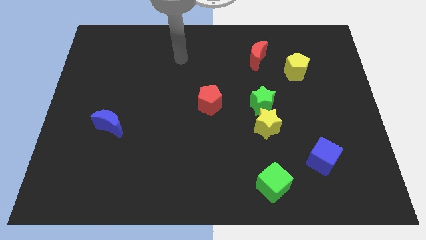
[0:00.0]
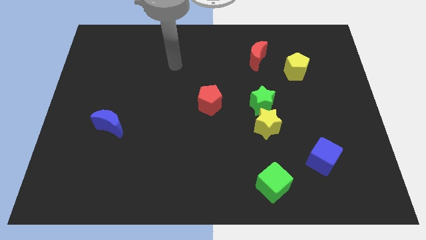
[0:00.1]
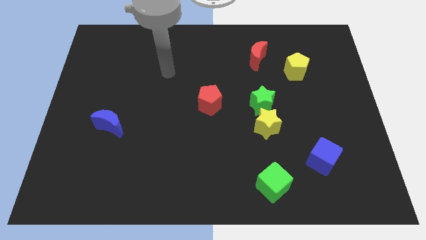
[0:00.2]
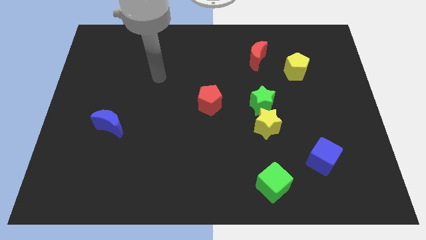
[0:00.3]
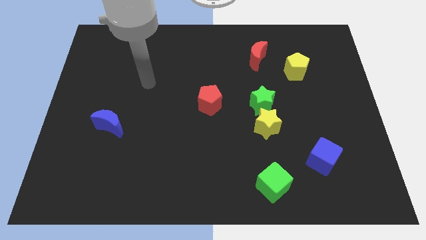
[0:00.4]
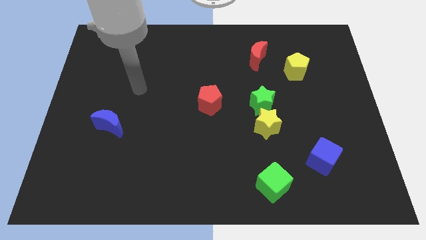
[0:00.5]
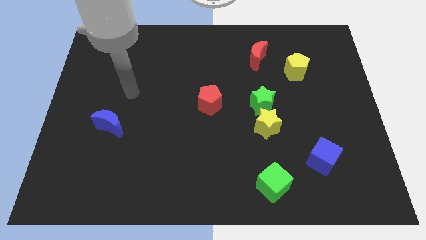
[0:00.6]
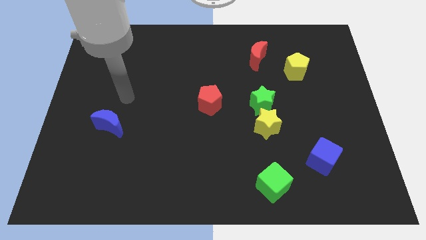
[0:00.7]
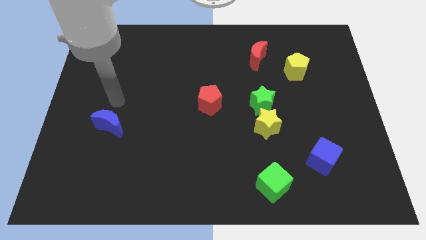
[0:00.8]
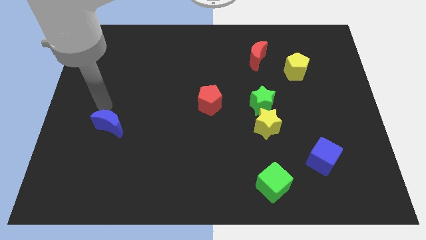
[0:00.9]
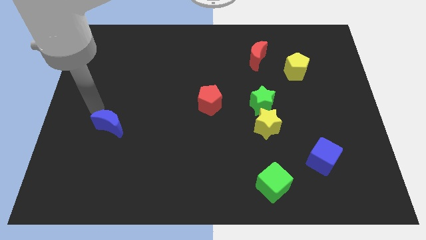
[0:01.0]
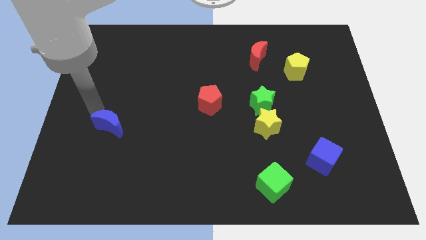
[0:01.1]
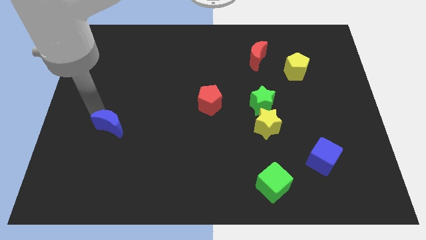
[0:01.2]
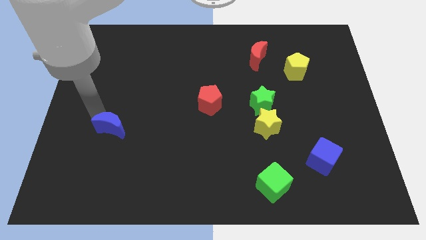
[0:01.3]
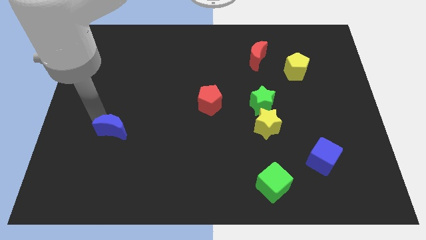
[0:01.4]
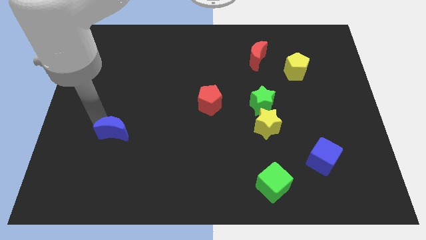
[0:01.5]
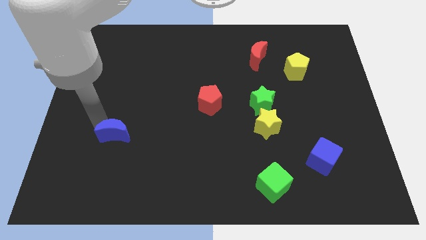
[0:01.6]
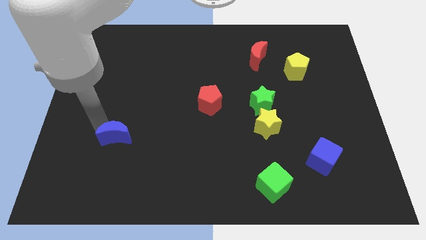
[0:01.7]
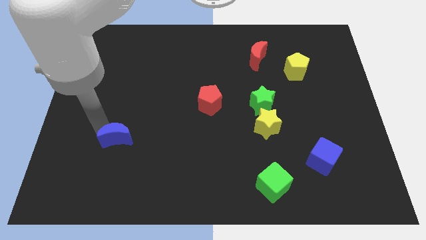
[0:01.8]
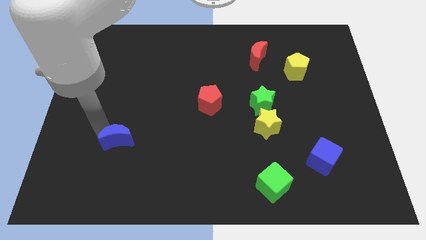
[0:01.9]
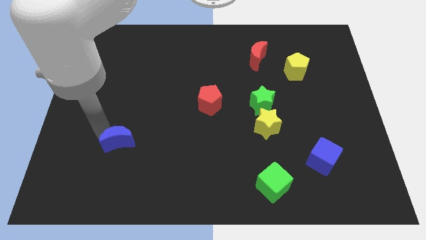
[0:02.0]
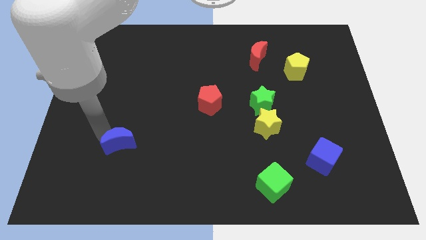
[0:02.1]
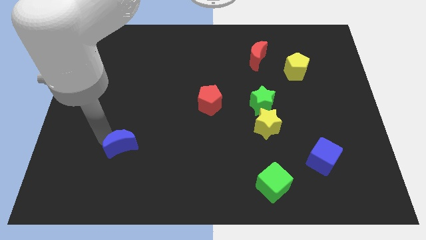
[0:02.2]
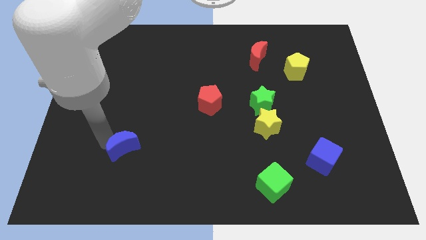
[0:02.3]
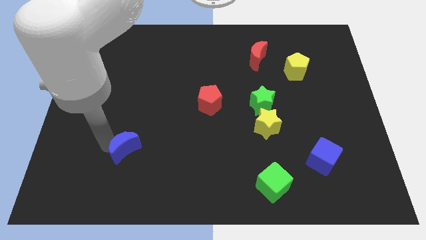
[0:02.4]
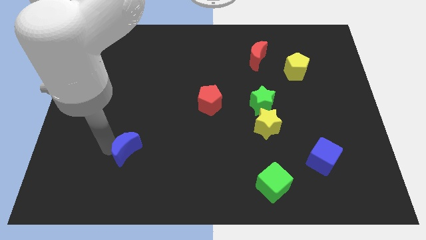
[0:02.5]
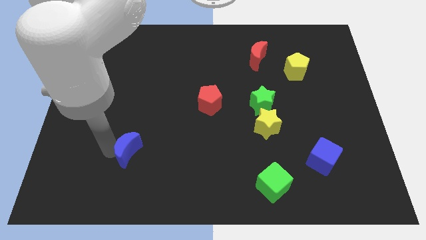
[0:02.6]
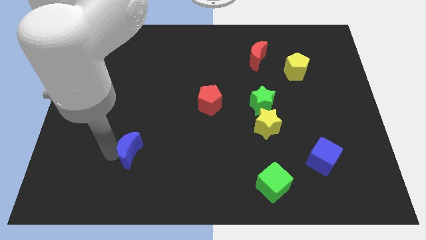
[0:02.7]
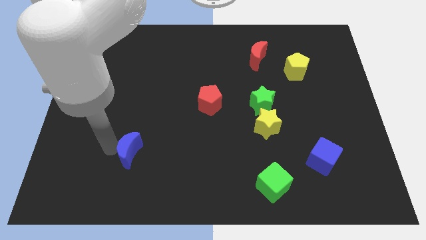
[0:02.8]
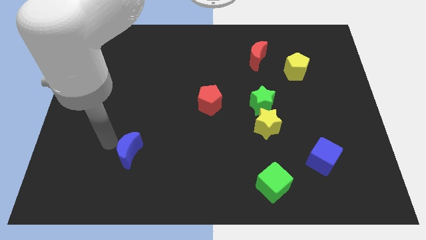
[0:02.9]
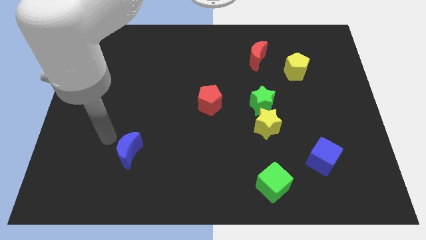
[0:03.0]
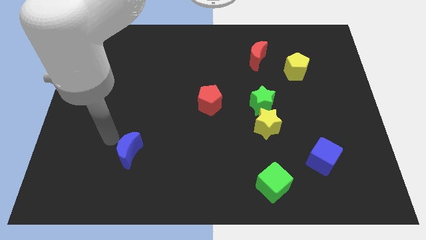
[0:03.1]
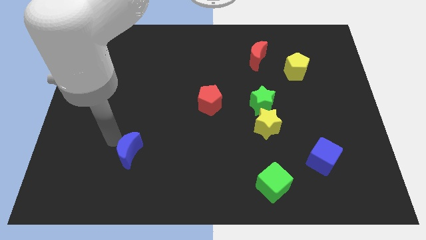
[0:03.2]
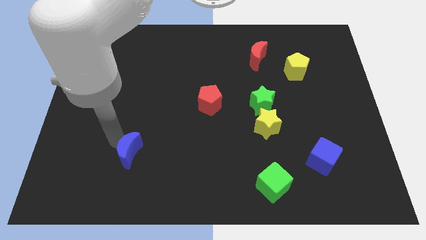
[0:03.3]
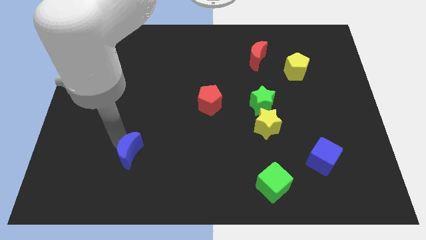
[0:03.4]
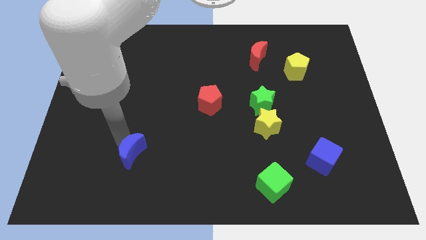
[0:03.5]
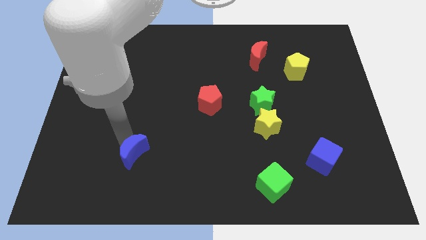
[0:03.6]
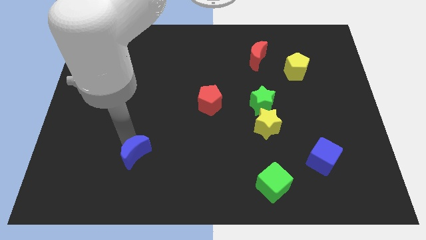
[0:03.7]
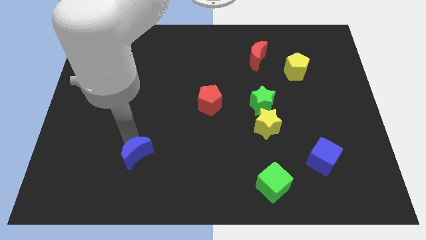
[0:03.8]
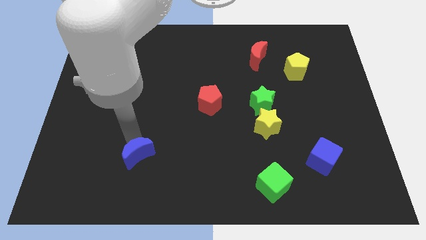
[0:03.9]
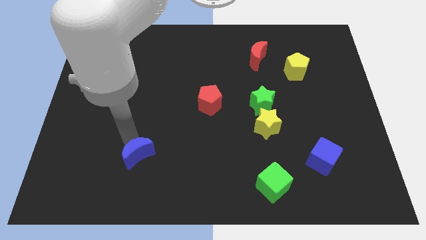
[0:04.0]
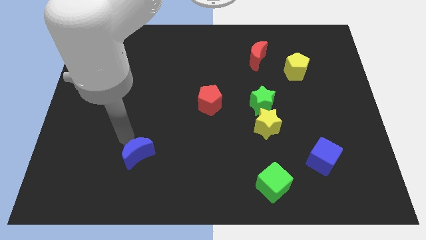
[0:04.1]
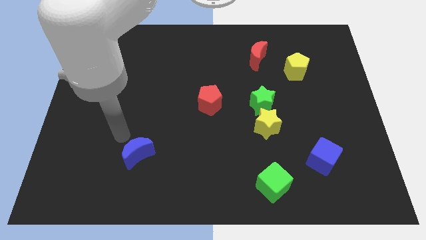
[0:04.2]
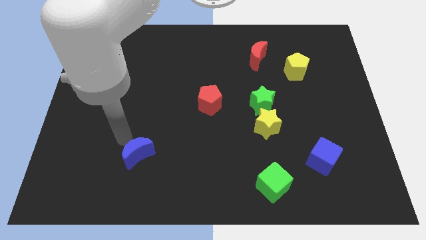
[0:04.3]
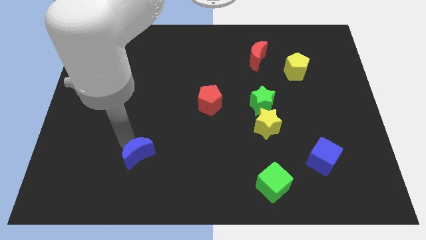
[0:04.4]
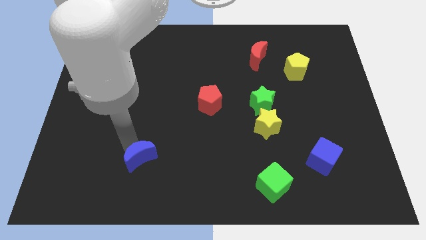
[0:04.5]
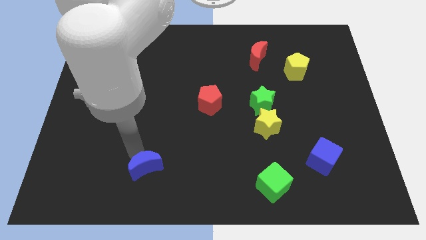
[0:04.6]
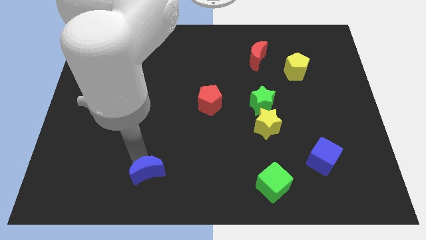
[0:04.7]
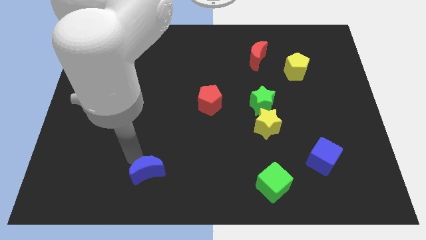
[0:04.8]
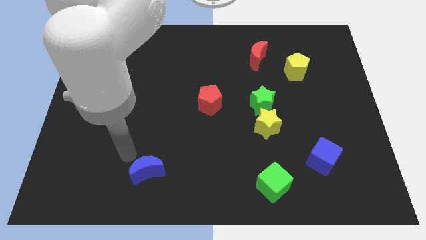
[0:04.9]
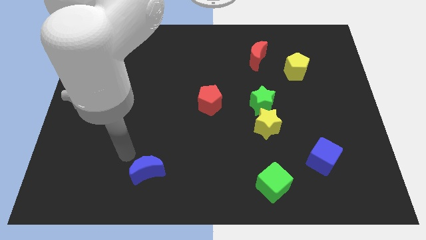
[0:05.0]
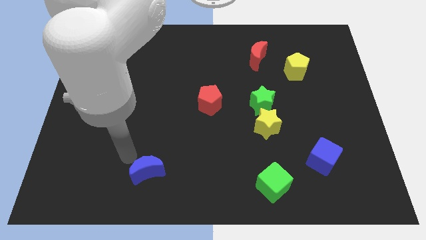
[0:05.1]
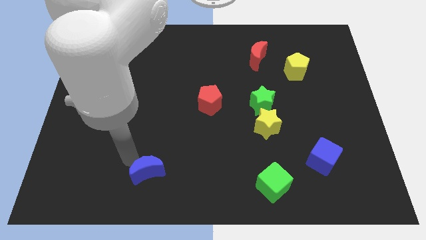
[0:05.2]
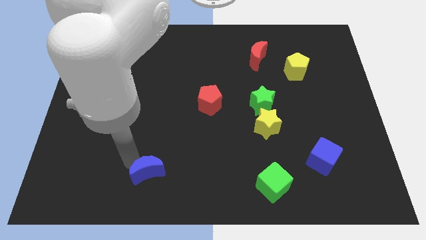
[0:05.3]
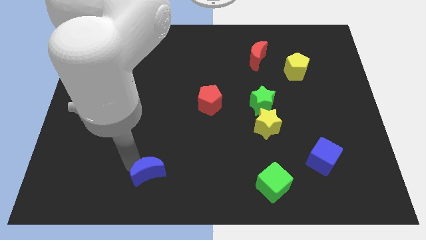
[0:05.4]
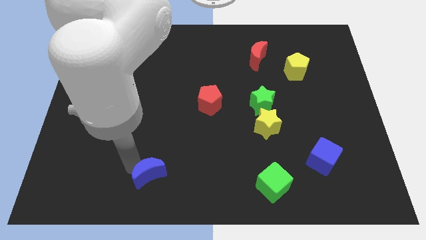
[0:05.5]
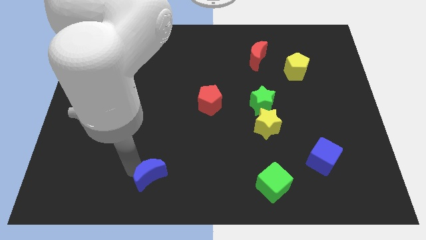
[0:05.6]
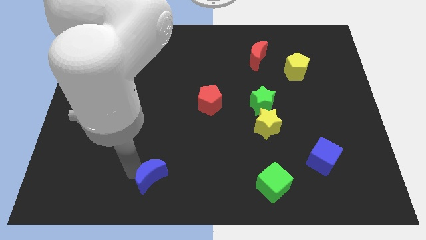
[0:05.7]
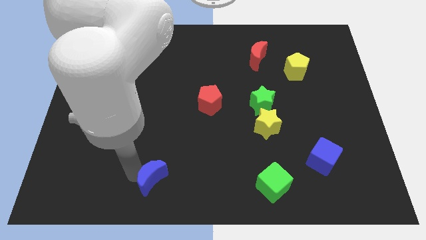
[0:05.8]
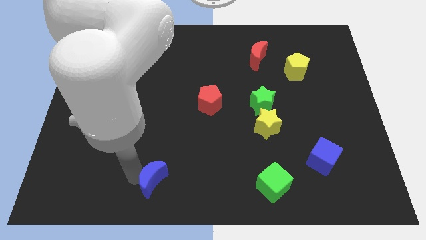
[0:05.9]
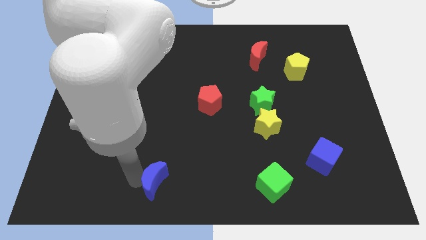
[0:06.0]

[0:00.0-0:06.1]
push the blue moon to the bottom

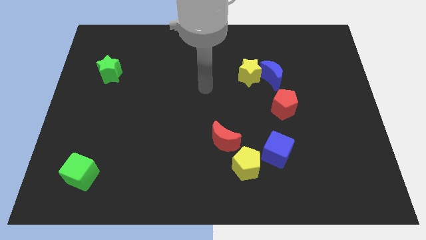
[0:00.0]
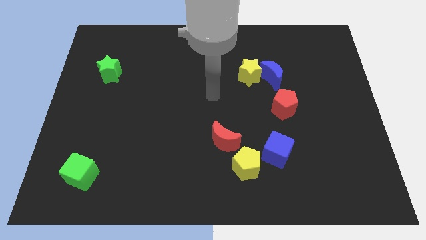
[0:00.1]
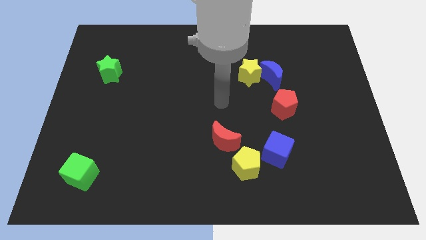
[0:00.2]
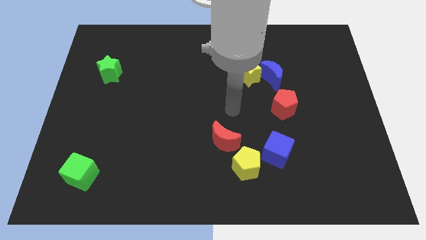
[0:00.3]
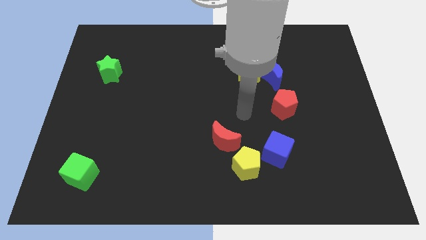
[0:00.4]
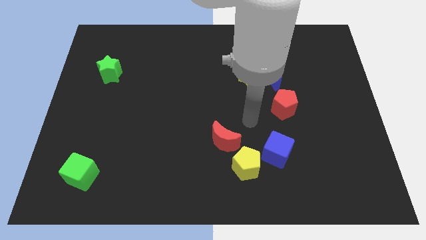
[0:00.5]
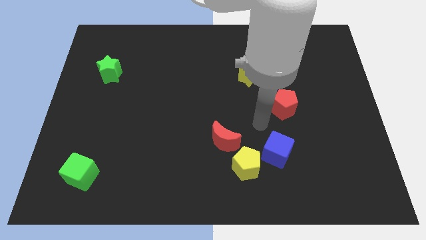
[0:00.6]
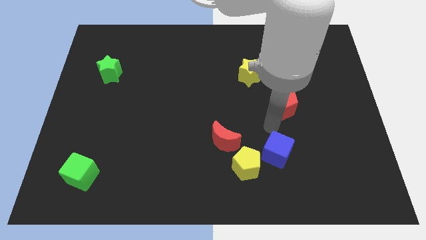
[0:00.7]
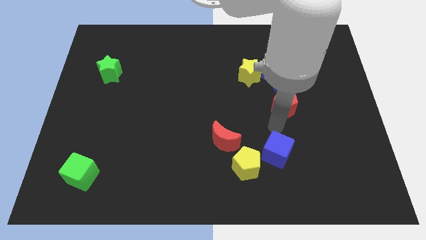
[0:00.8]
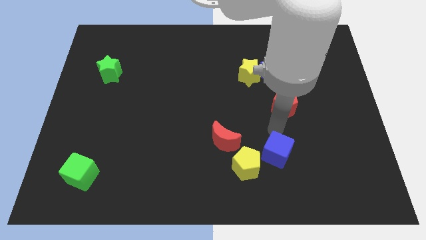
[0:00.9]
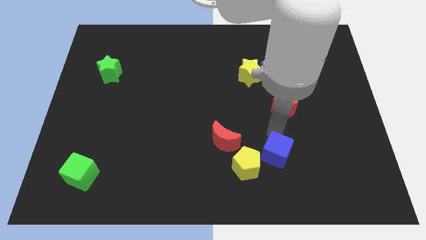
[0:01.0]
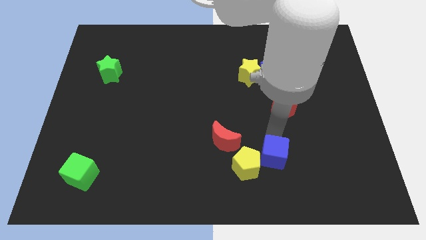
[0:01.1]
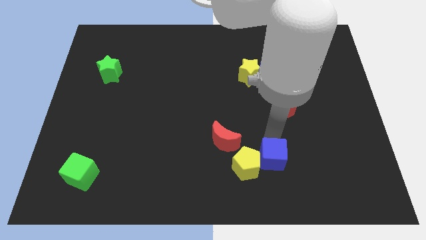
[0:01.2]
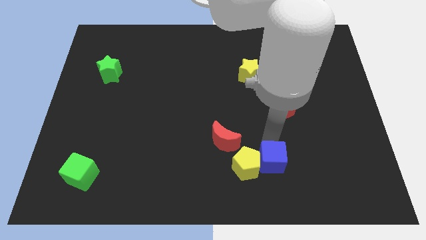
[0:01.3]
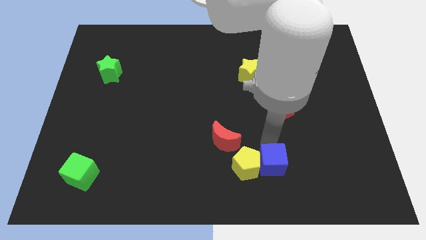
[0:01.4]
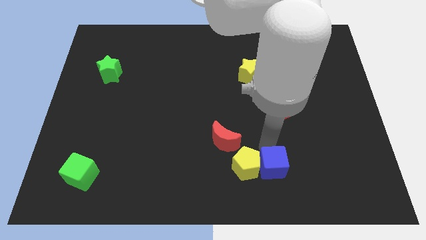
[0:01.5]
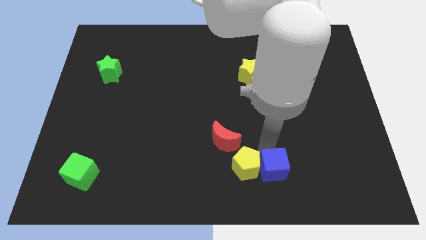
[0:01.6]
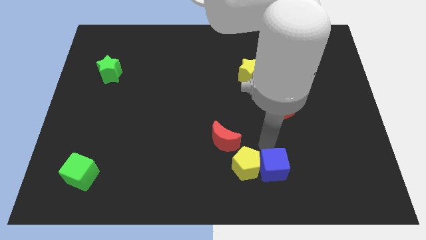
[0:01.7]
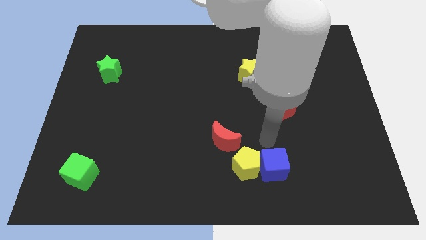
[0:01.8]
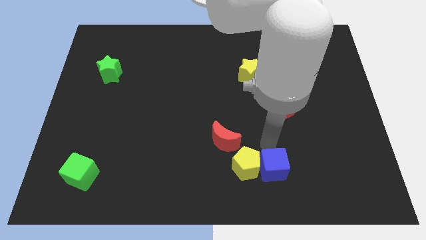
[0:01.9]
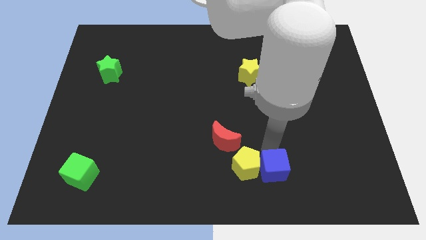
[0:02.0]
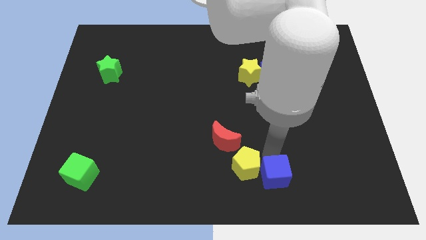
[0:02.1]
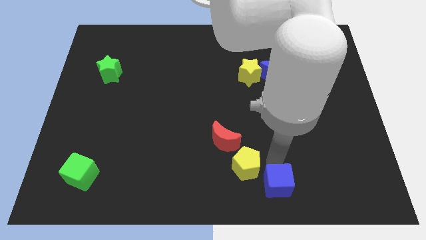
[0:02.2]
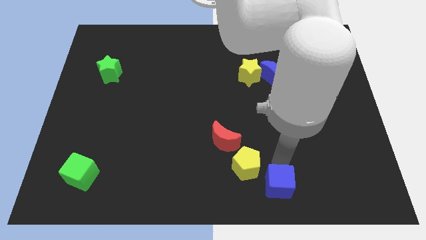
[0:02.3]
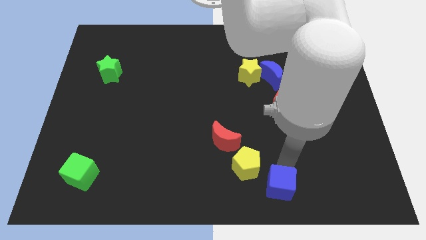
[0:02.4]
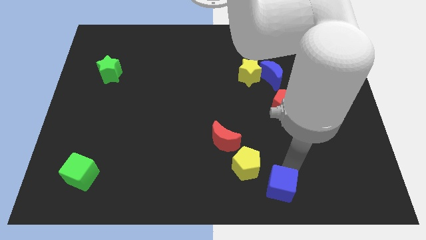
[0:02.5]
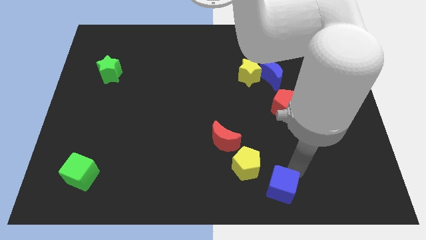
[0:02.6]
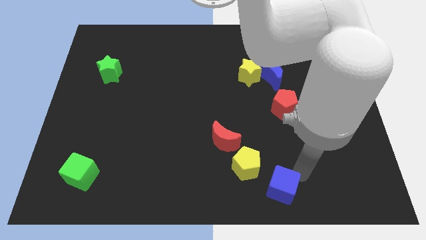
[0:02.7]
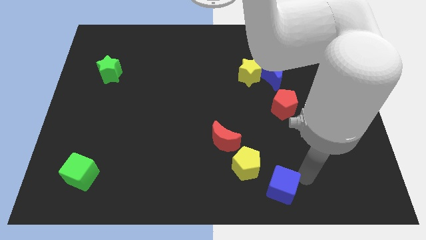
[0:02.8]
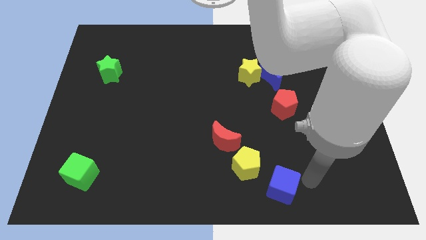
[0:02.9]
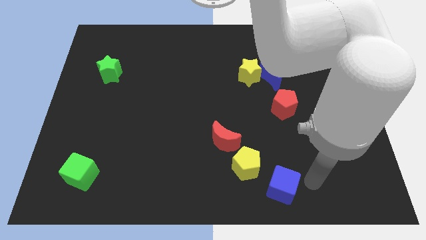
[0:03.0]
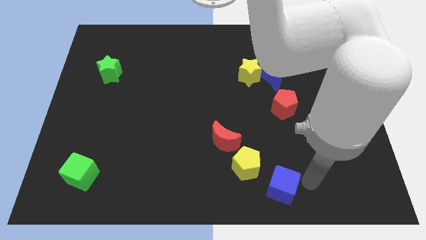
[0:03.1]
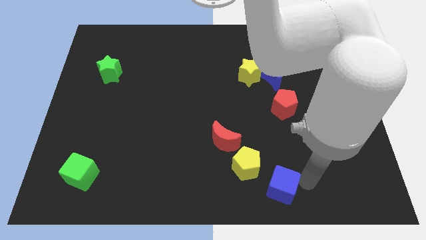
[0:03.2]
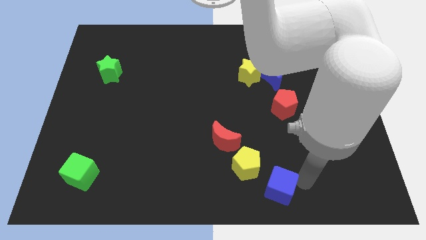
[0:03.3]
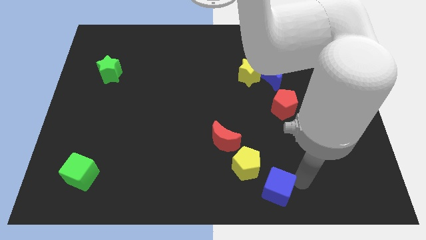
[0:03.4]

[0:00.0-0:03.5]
push the blue cube to the bottom side
